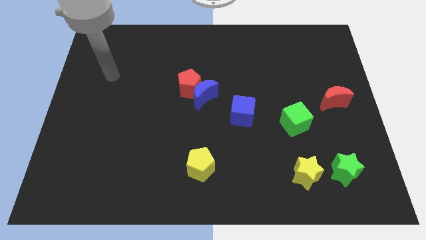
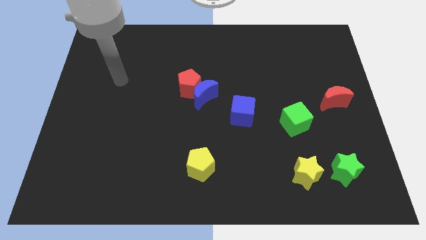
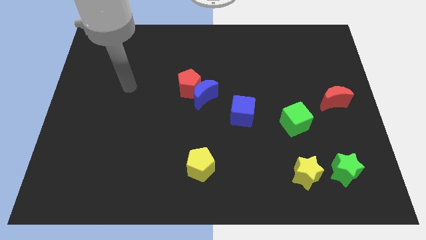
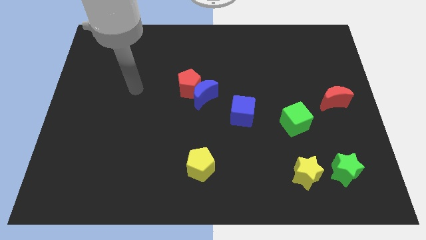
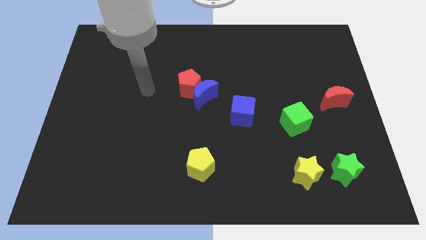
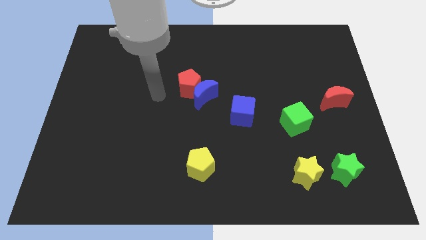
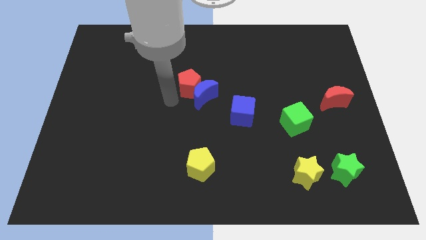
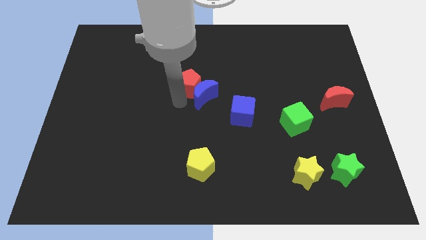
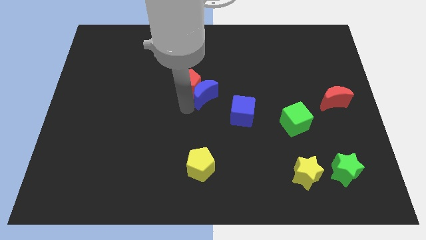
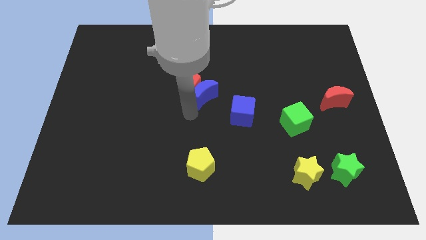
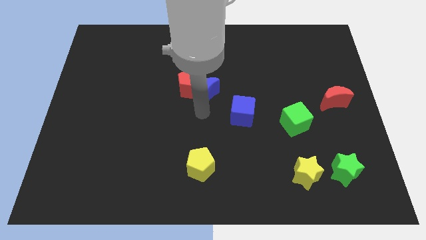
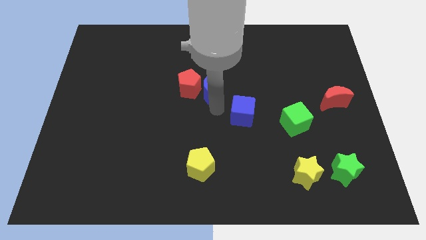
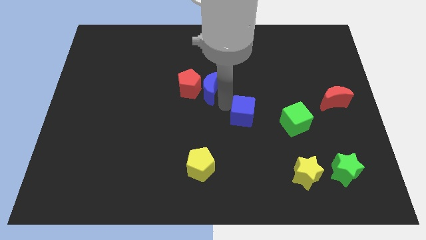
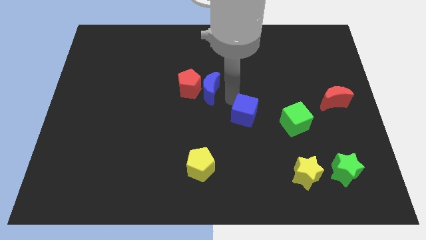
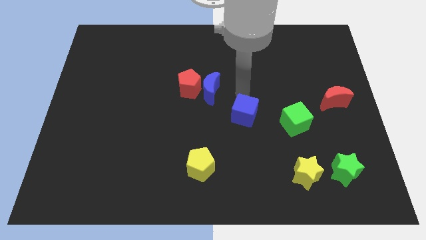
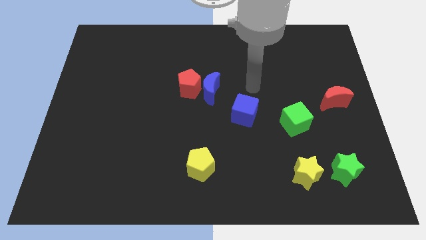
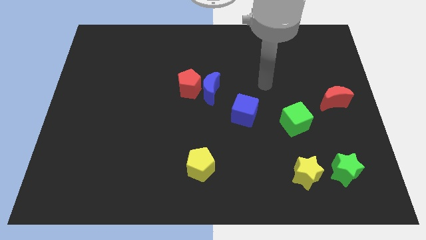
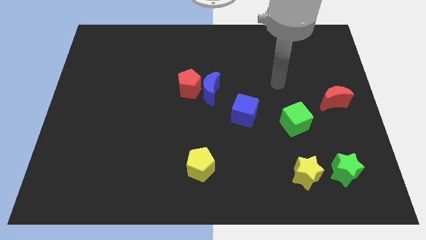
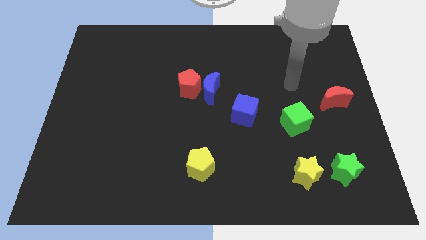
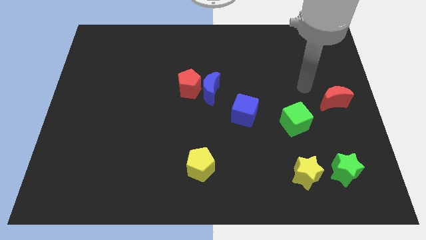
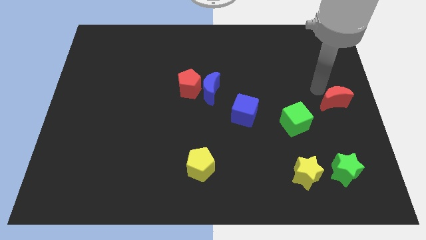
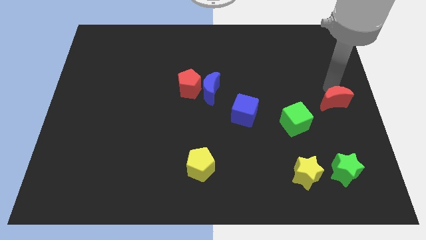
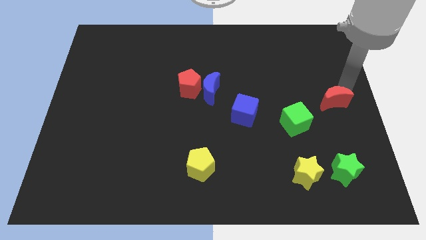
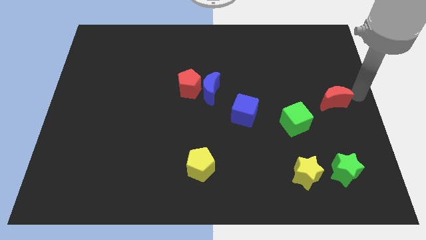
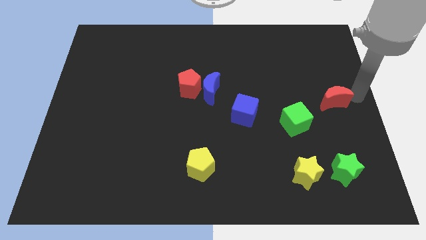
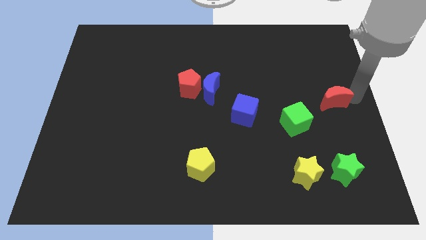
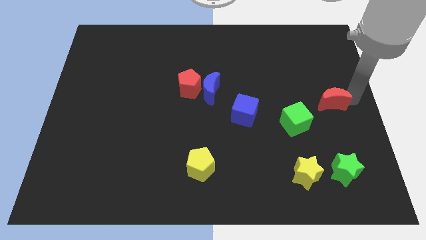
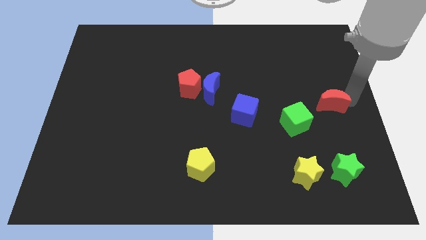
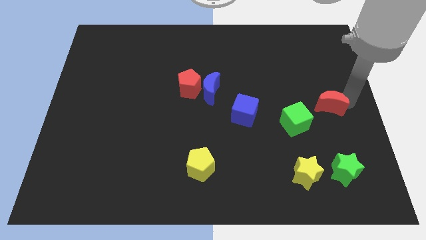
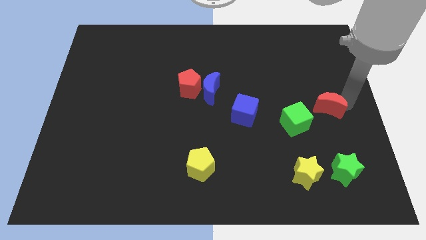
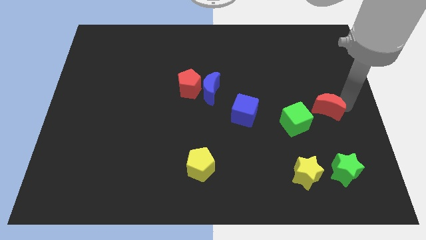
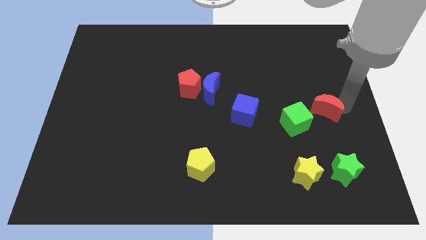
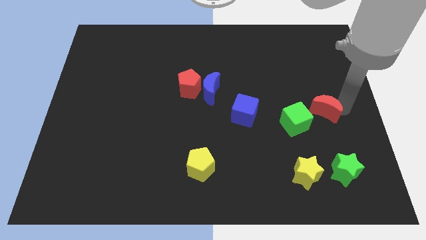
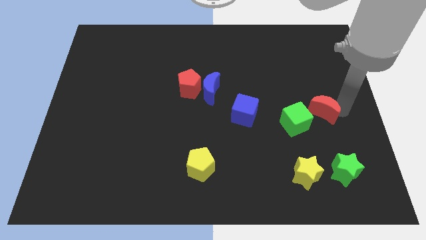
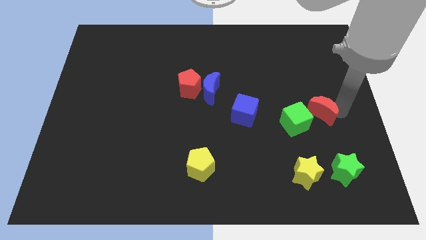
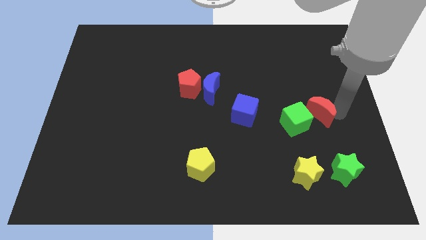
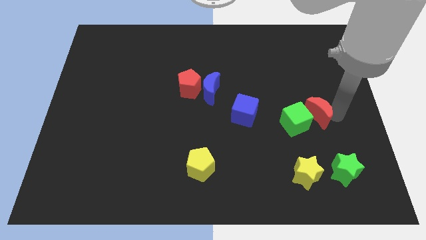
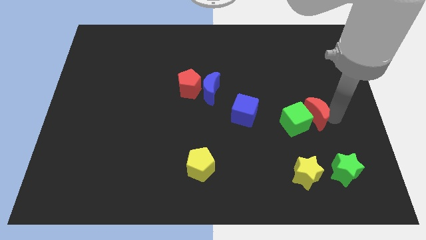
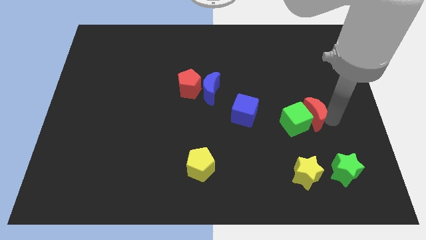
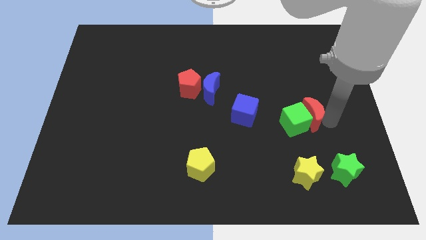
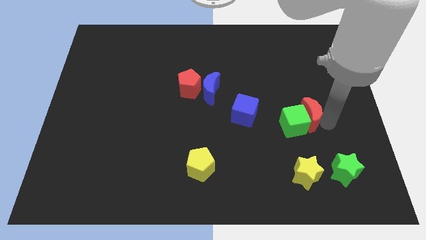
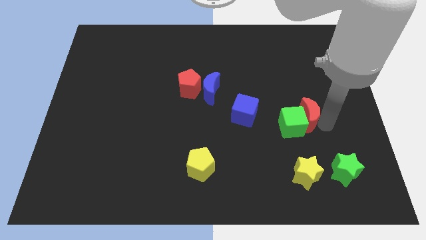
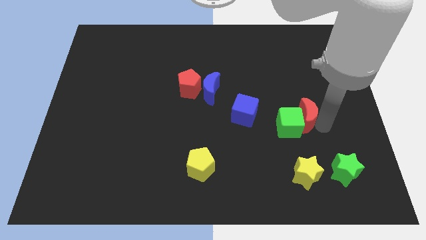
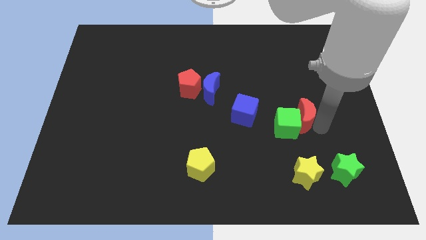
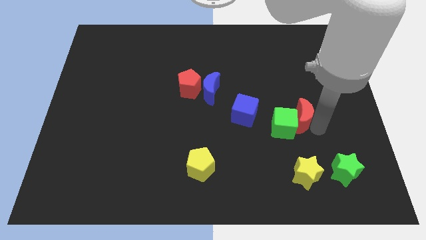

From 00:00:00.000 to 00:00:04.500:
move the red moon to the left a bit

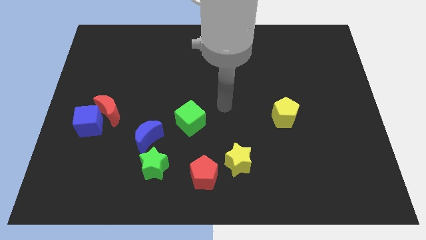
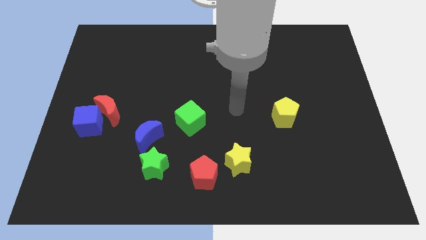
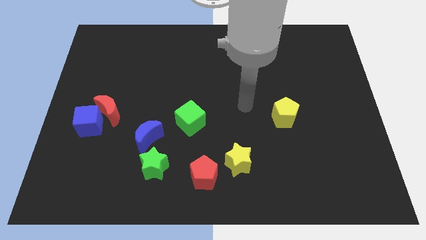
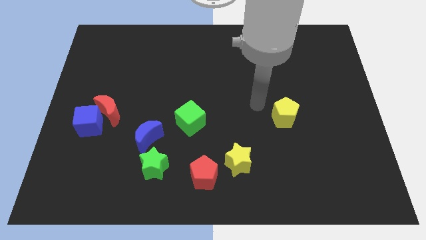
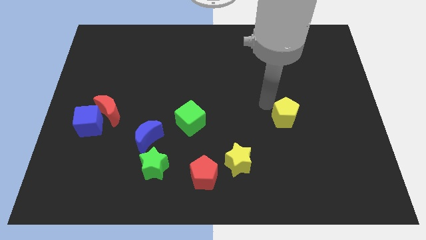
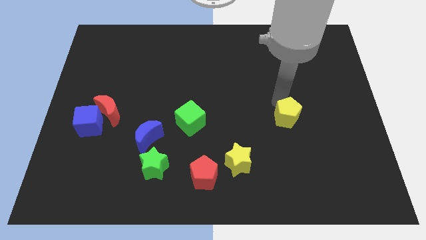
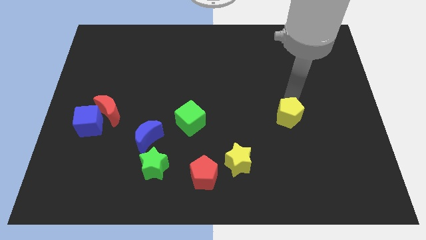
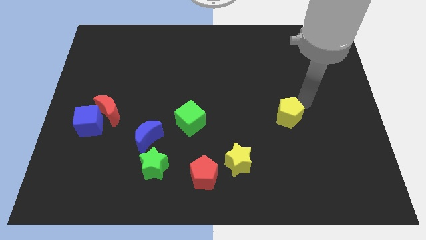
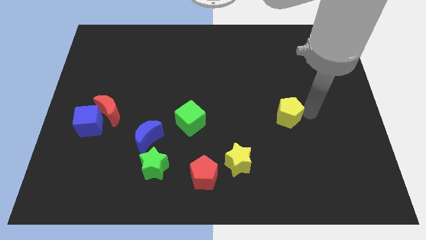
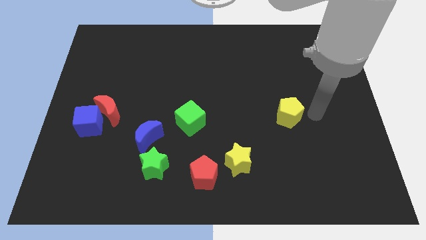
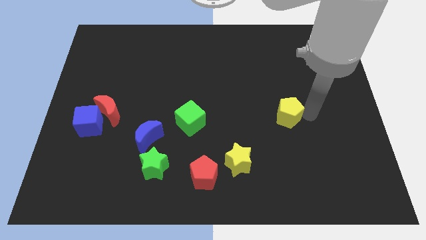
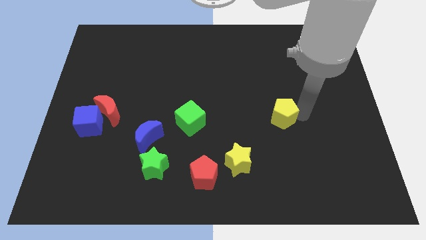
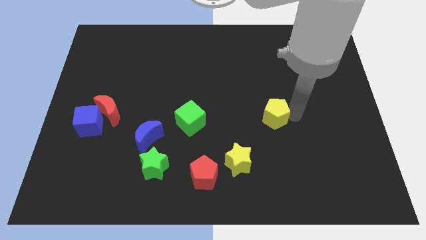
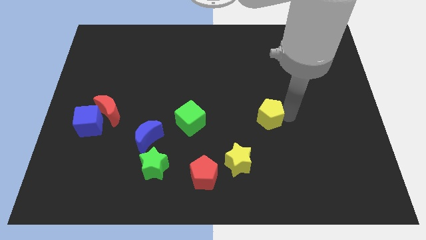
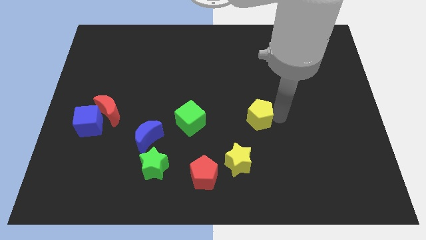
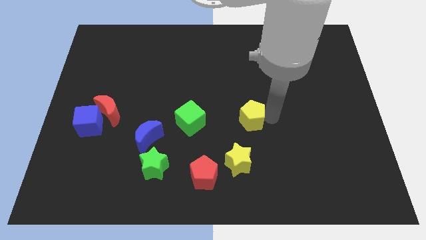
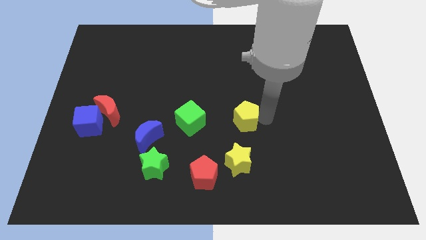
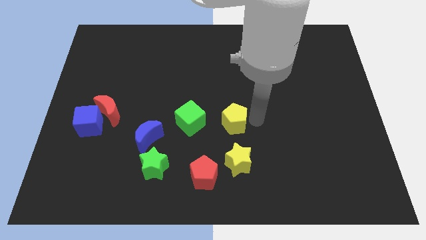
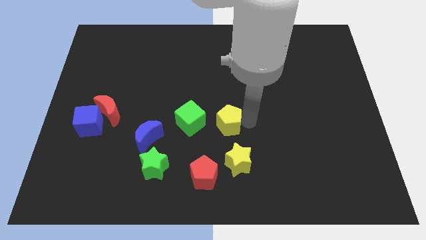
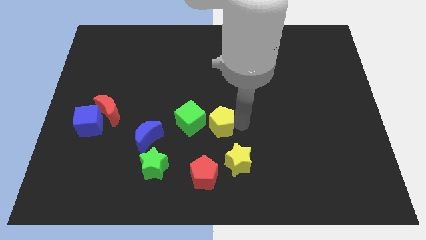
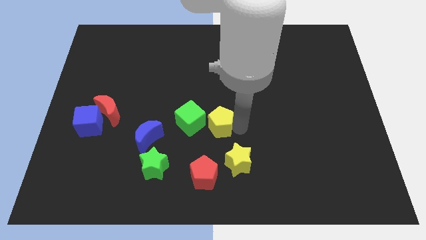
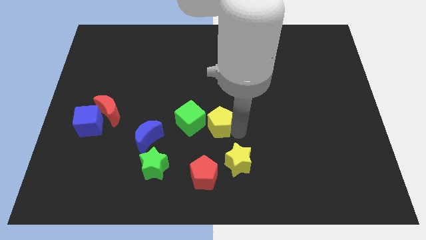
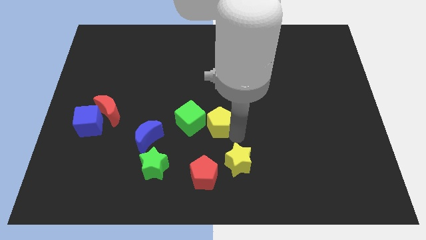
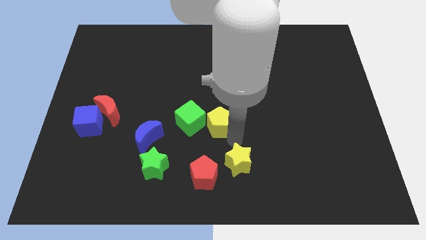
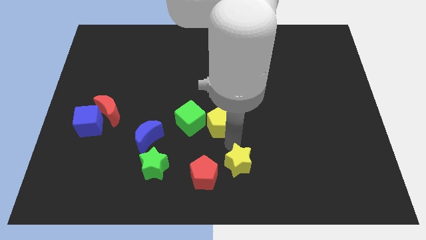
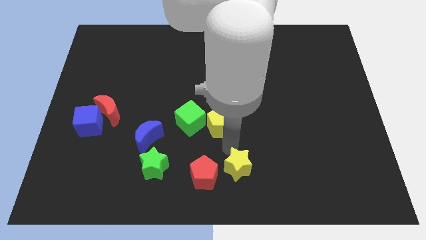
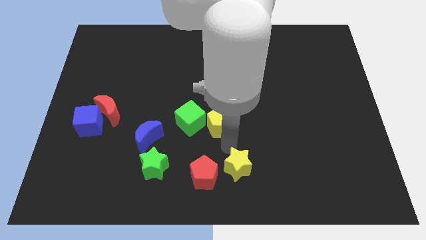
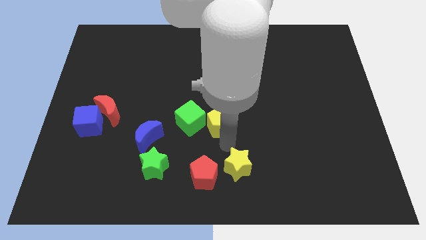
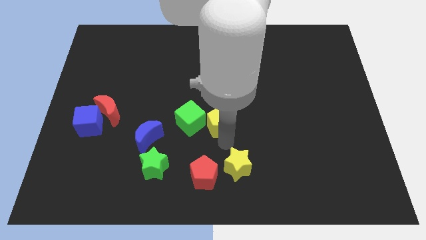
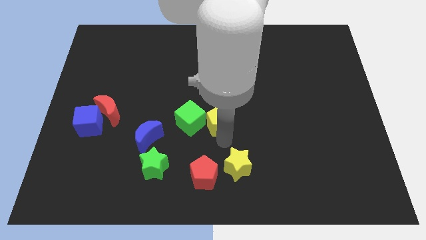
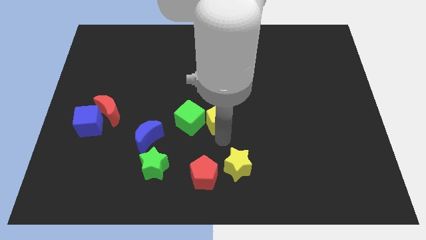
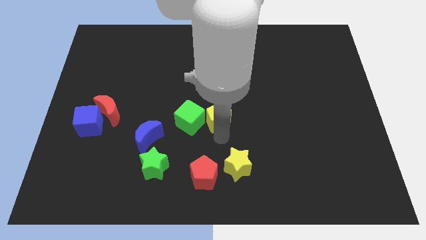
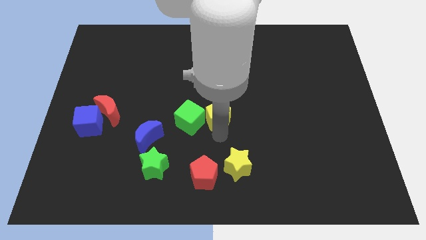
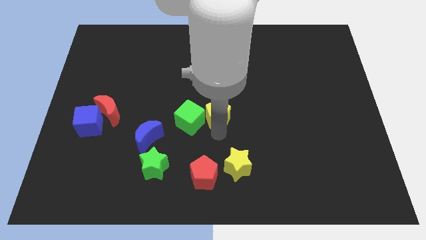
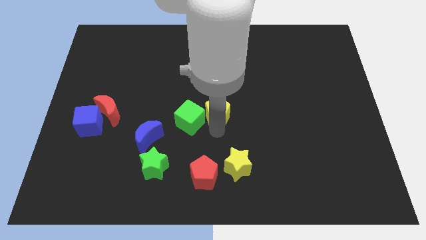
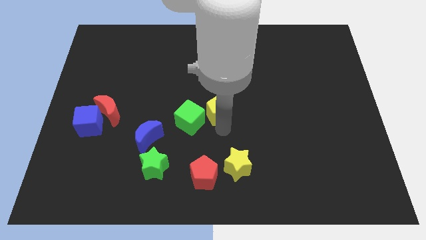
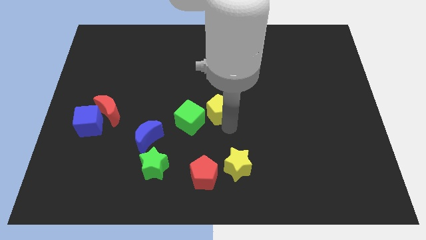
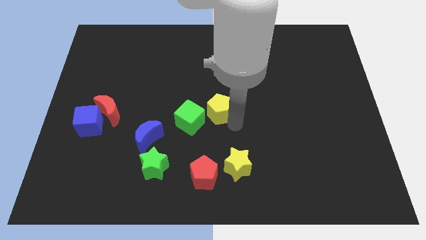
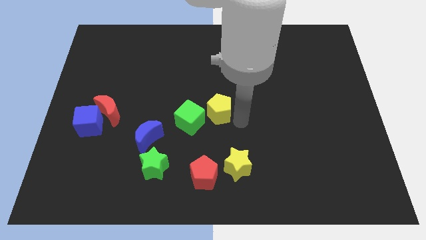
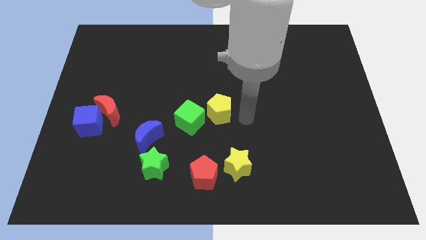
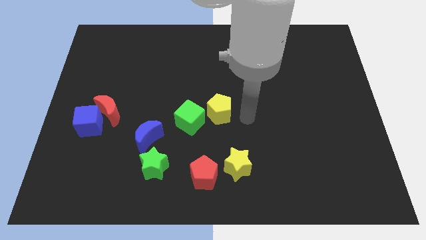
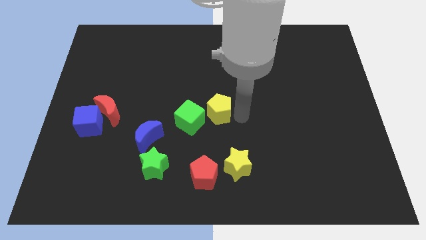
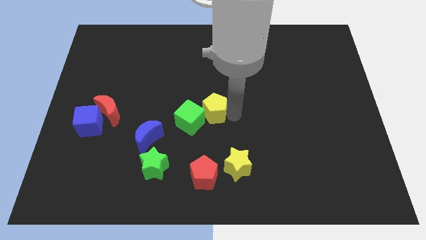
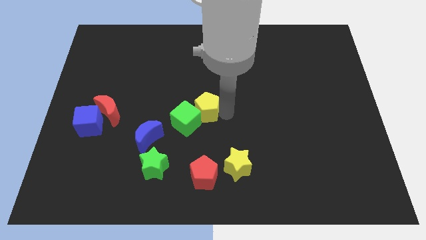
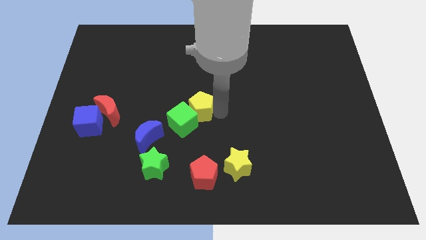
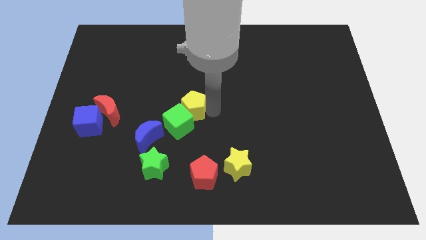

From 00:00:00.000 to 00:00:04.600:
slide the yellow pentagon left
